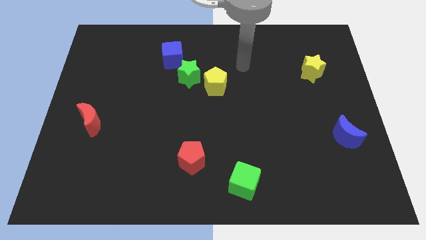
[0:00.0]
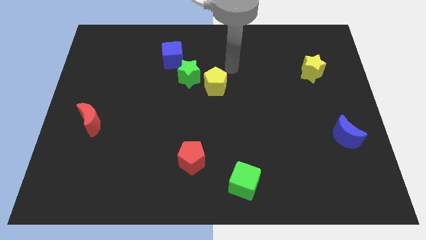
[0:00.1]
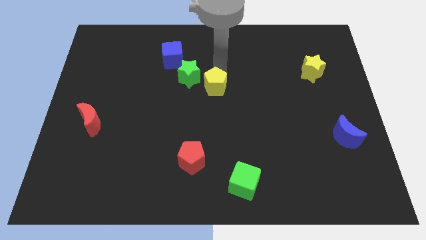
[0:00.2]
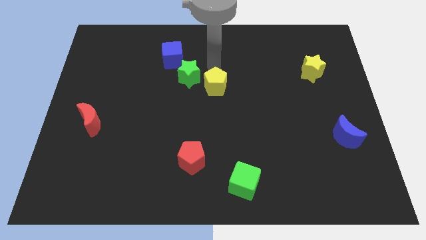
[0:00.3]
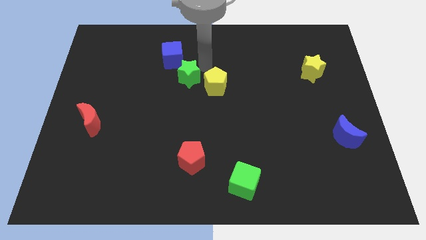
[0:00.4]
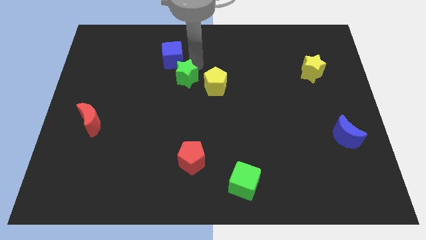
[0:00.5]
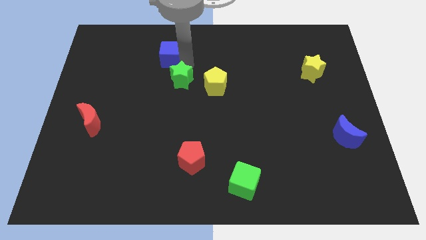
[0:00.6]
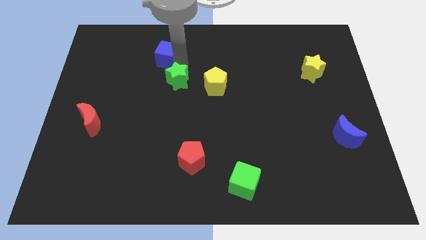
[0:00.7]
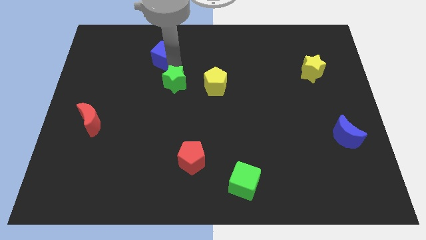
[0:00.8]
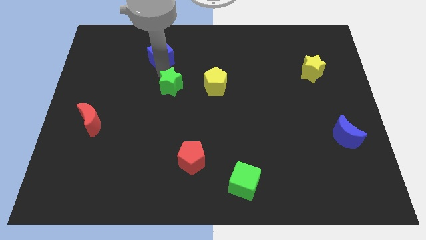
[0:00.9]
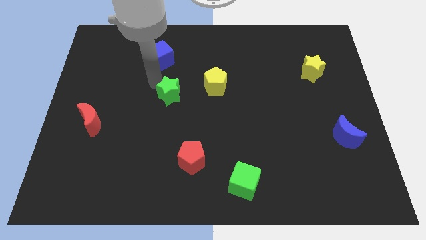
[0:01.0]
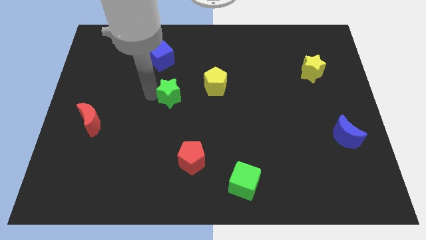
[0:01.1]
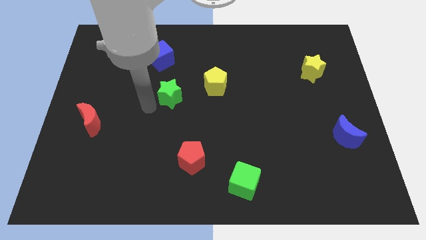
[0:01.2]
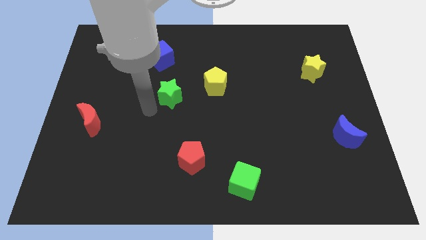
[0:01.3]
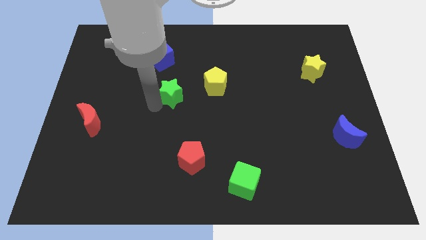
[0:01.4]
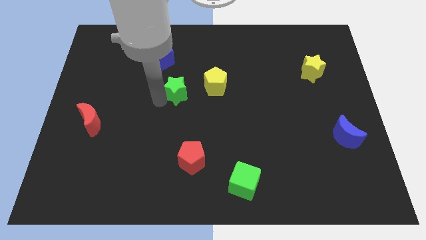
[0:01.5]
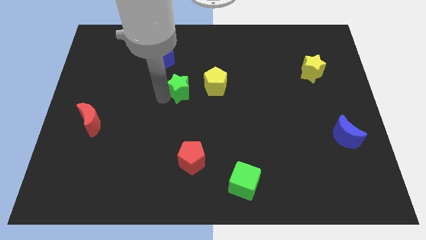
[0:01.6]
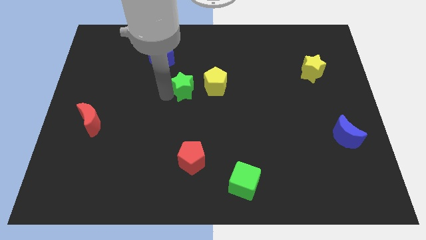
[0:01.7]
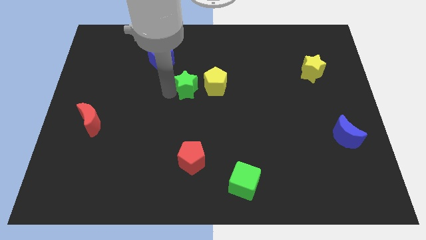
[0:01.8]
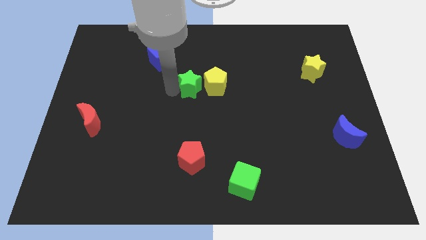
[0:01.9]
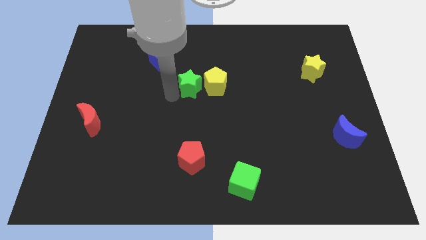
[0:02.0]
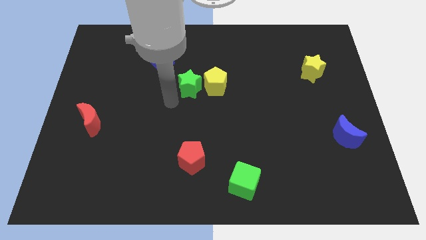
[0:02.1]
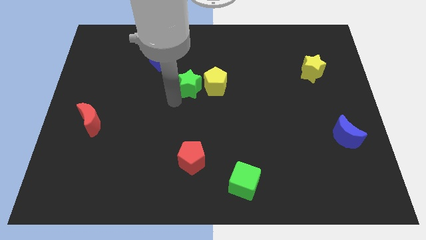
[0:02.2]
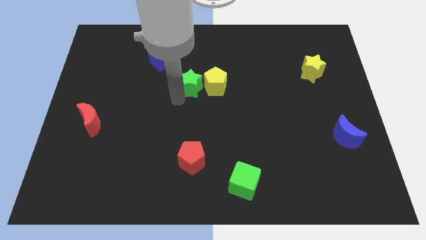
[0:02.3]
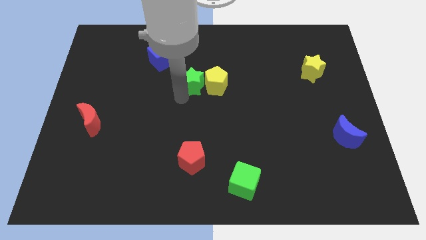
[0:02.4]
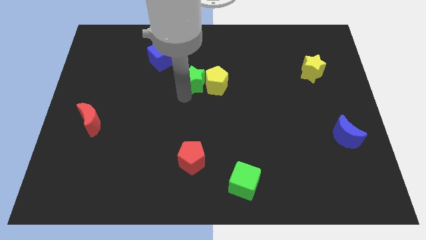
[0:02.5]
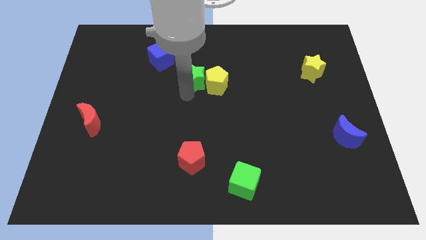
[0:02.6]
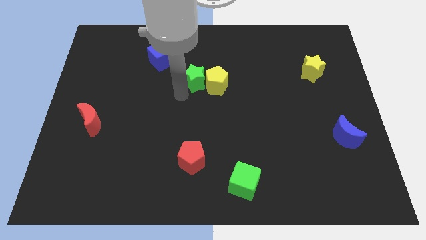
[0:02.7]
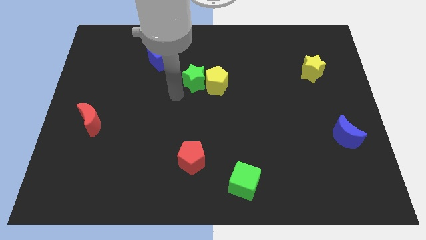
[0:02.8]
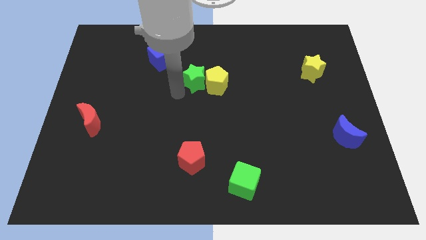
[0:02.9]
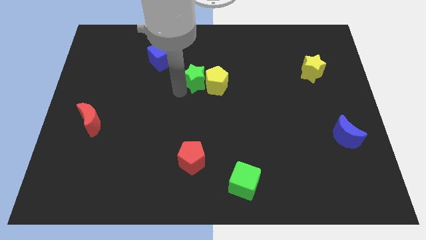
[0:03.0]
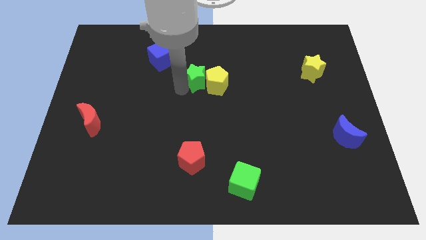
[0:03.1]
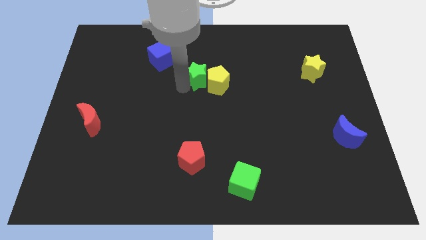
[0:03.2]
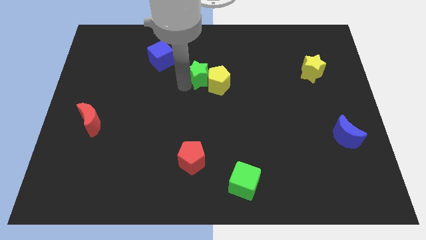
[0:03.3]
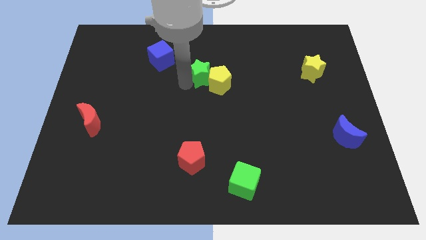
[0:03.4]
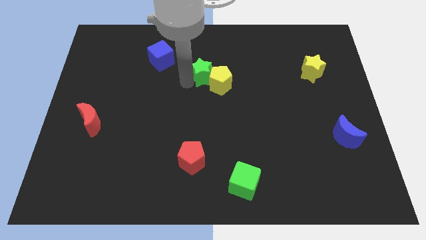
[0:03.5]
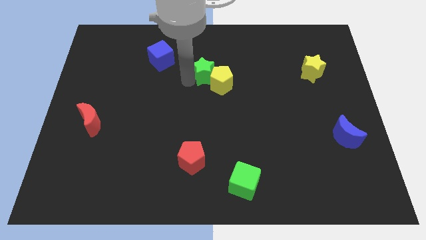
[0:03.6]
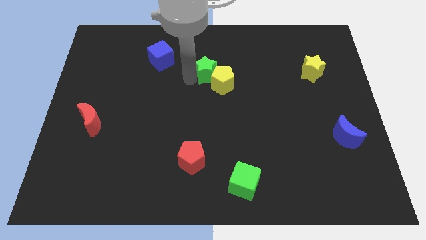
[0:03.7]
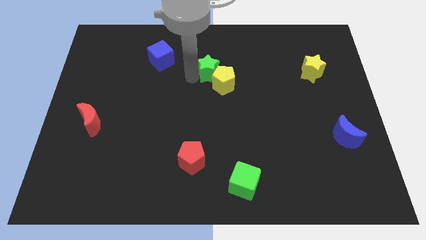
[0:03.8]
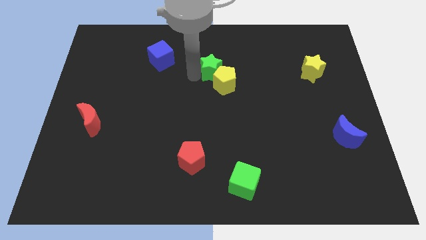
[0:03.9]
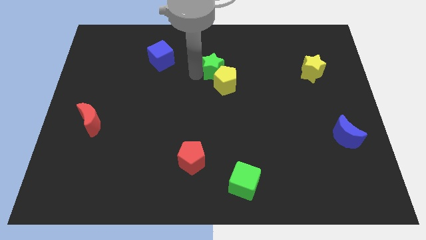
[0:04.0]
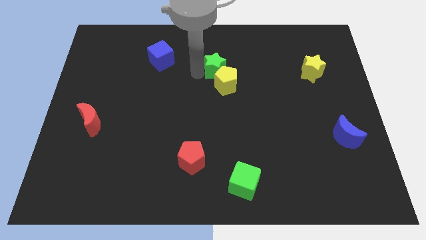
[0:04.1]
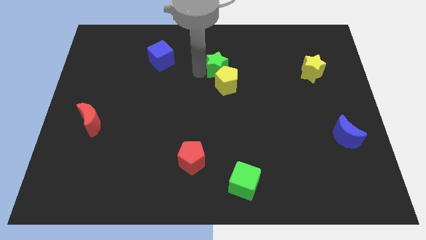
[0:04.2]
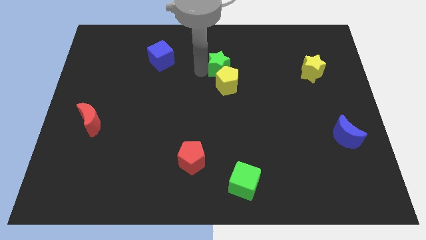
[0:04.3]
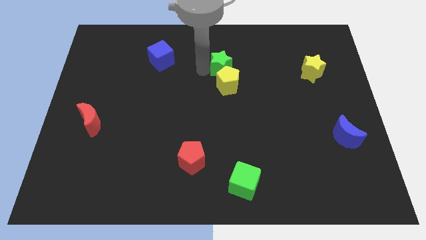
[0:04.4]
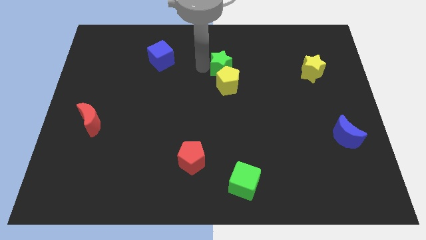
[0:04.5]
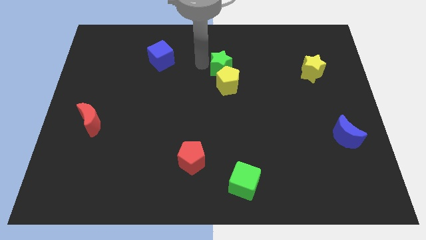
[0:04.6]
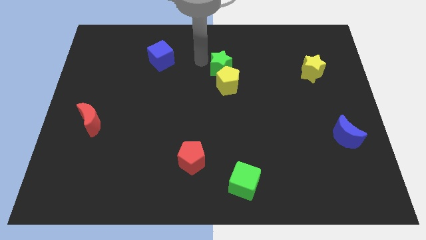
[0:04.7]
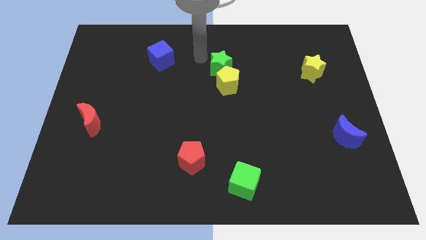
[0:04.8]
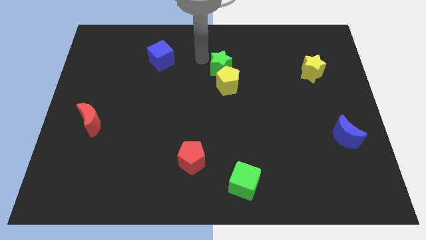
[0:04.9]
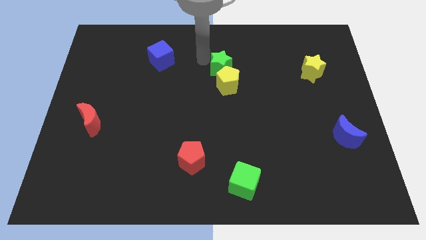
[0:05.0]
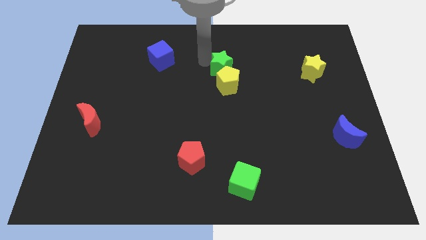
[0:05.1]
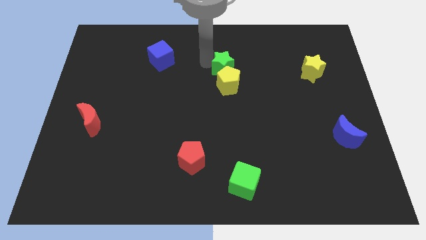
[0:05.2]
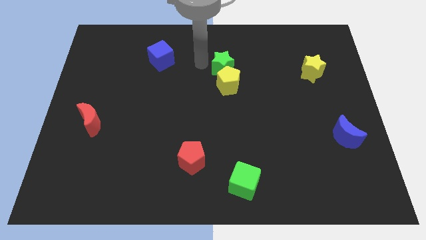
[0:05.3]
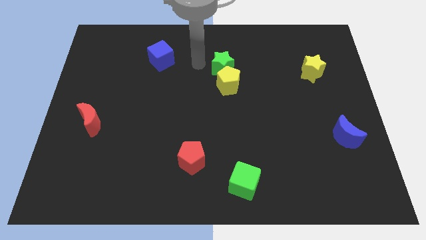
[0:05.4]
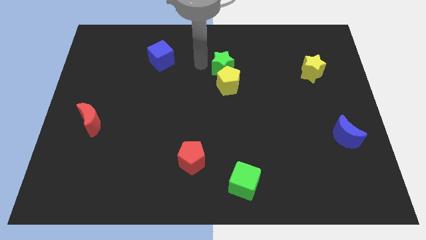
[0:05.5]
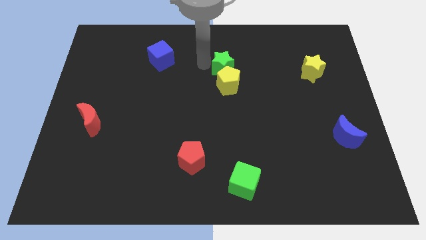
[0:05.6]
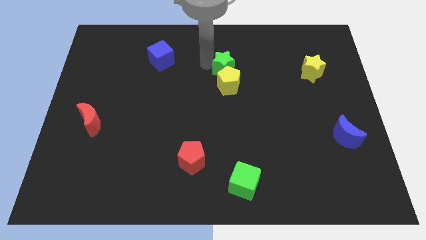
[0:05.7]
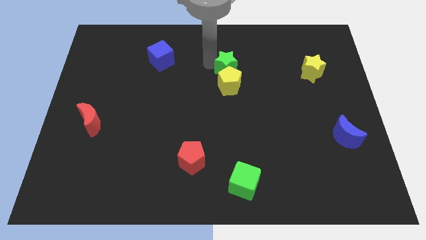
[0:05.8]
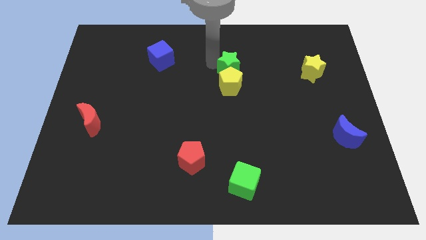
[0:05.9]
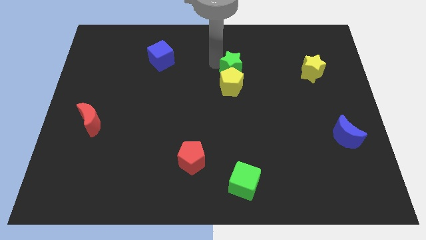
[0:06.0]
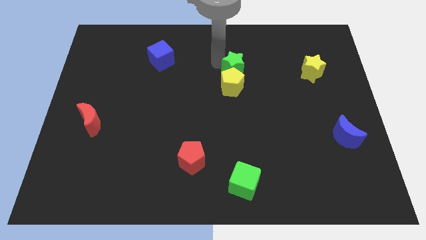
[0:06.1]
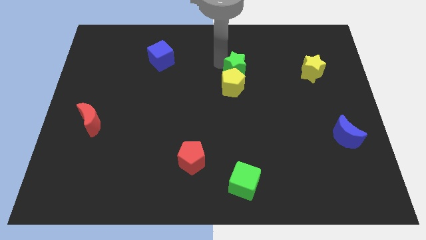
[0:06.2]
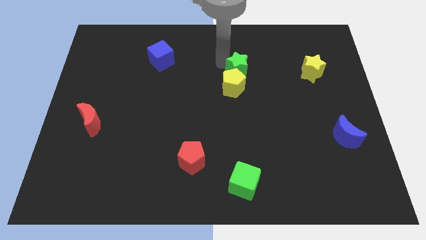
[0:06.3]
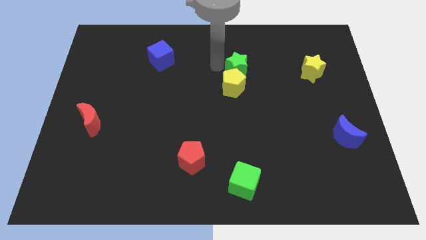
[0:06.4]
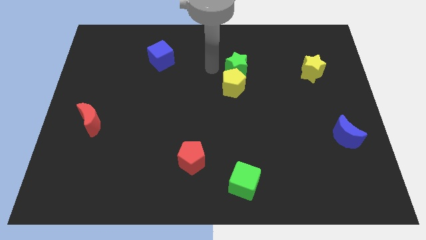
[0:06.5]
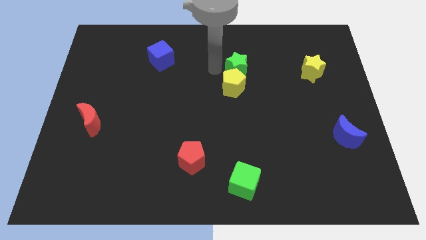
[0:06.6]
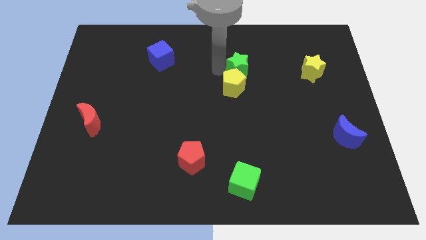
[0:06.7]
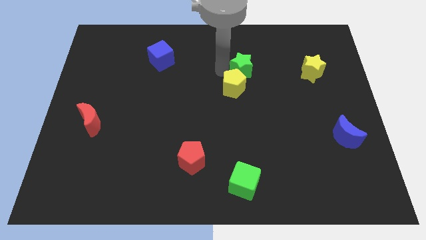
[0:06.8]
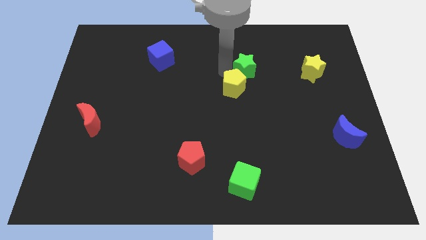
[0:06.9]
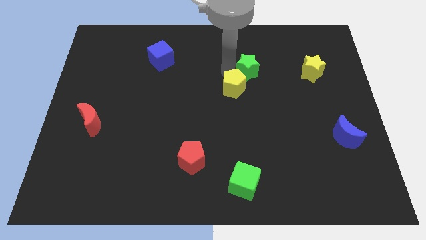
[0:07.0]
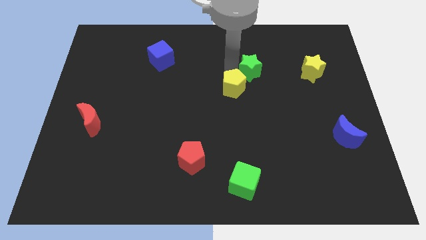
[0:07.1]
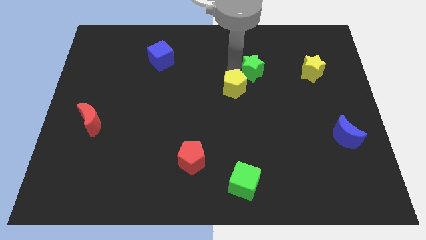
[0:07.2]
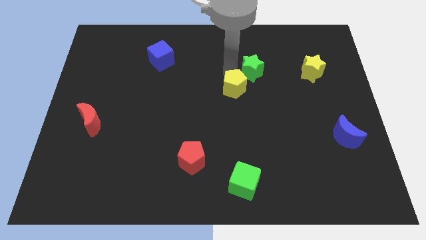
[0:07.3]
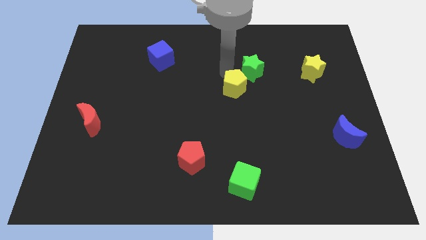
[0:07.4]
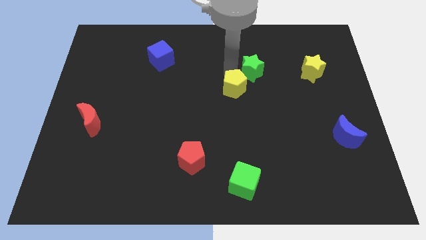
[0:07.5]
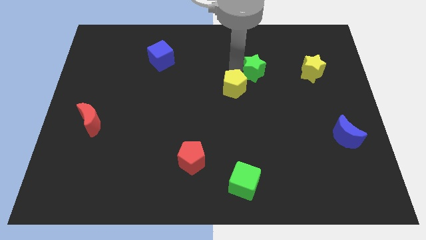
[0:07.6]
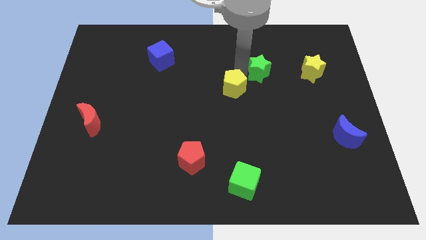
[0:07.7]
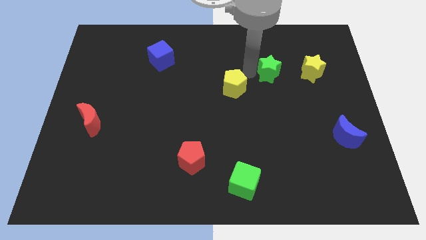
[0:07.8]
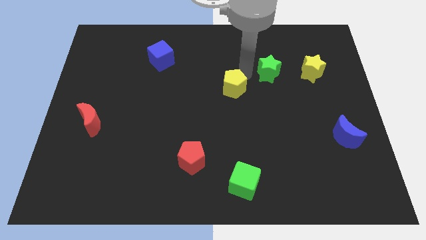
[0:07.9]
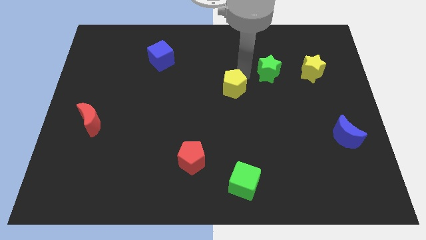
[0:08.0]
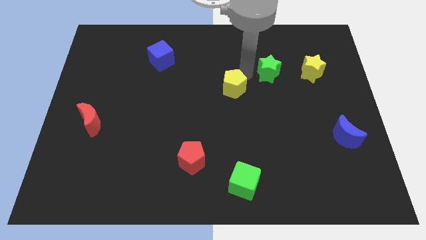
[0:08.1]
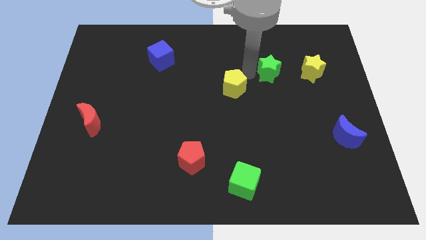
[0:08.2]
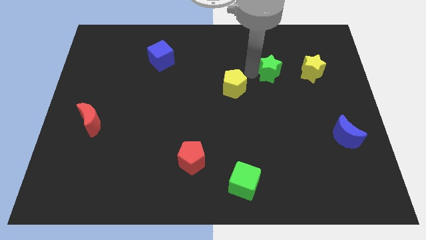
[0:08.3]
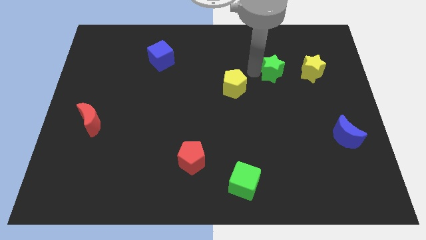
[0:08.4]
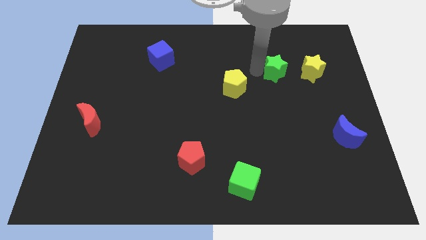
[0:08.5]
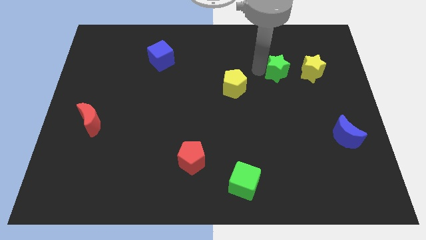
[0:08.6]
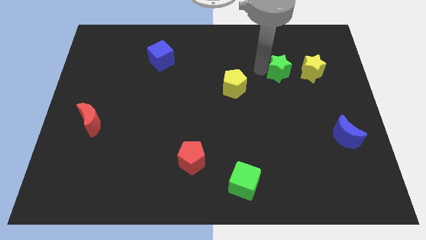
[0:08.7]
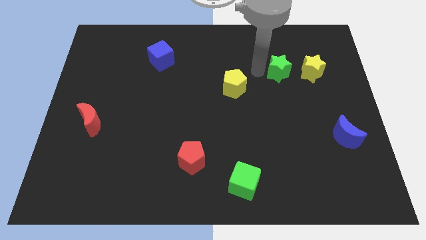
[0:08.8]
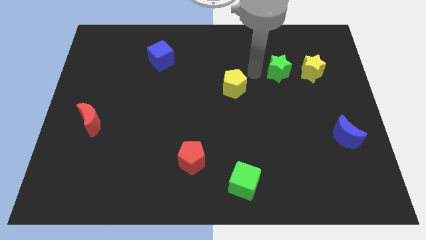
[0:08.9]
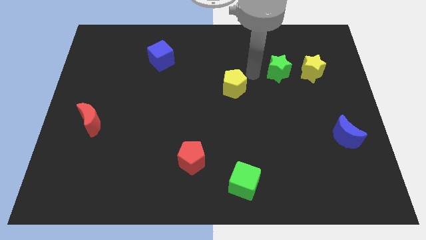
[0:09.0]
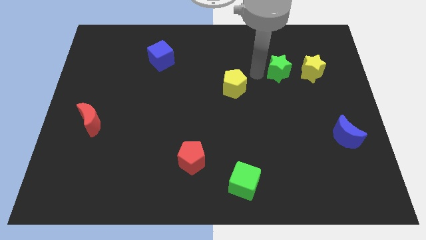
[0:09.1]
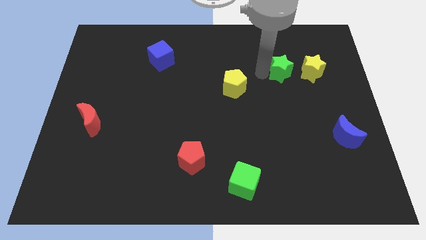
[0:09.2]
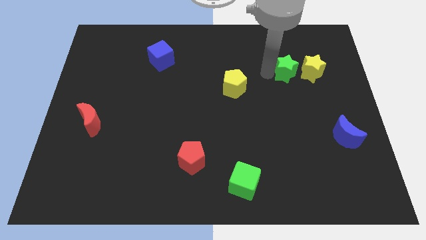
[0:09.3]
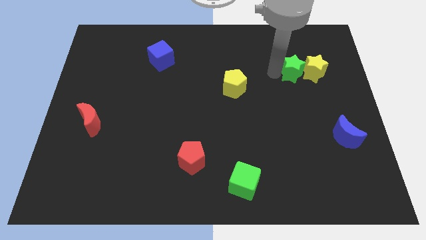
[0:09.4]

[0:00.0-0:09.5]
move the green star close to the yellow star
